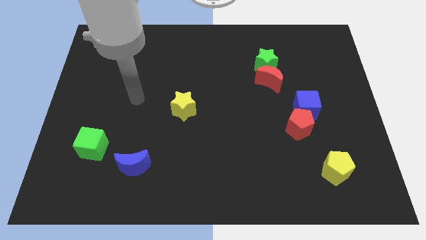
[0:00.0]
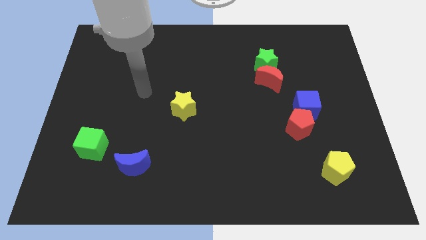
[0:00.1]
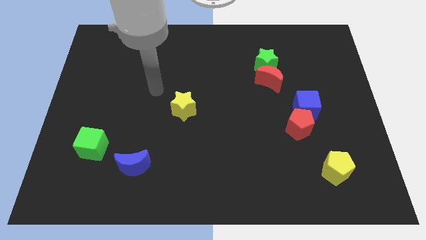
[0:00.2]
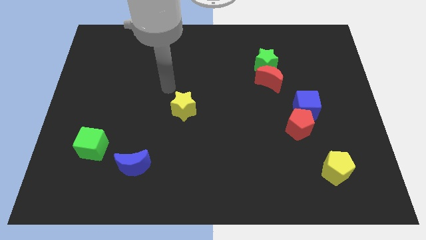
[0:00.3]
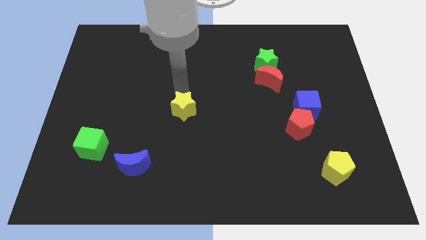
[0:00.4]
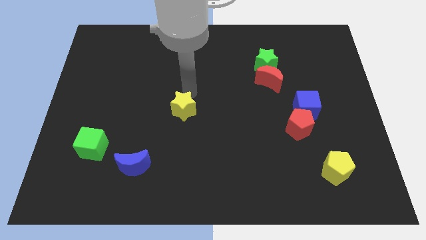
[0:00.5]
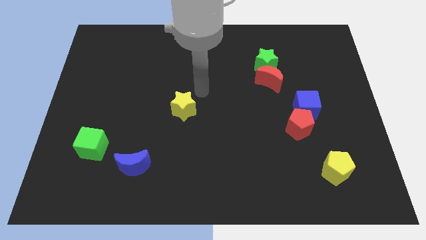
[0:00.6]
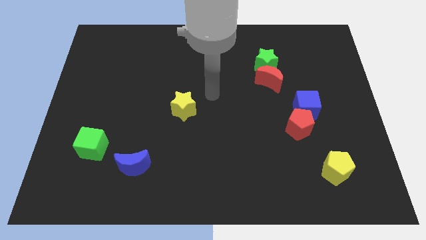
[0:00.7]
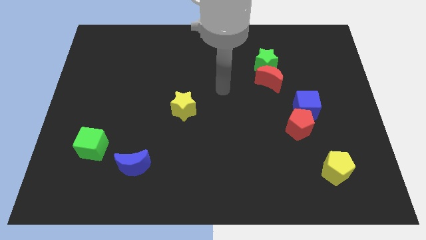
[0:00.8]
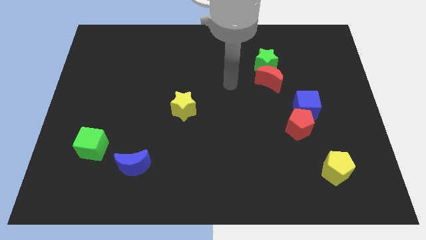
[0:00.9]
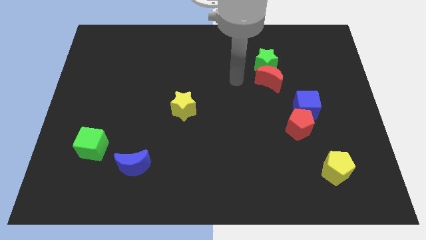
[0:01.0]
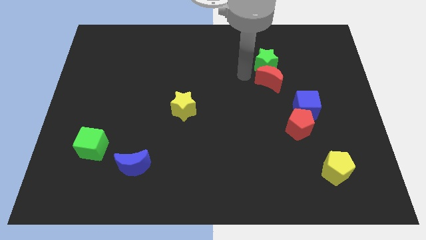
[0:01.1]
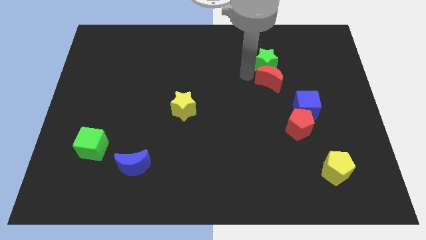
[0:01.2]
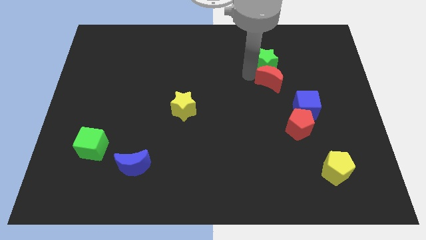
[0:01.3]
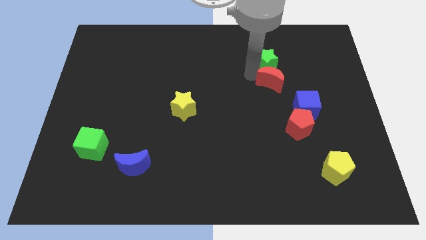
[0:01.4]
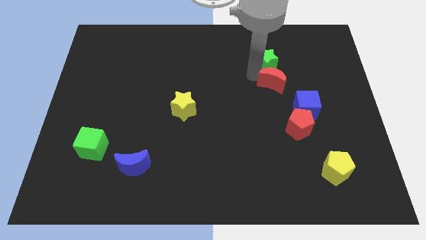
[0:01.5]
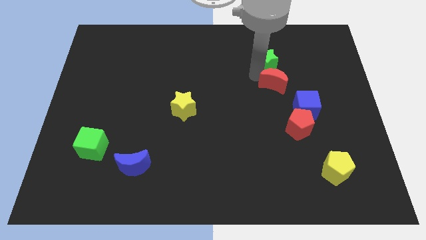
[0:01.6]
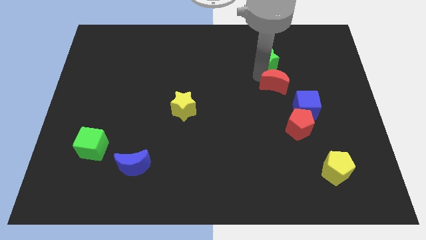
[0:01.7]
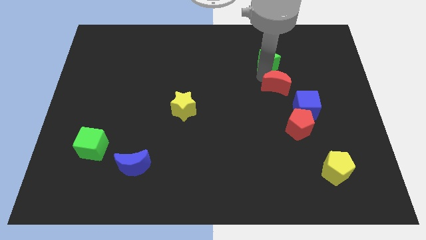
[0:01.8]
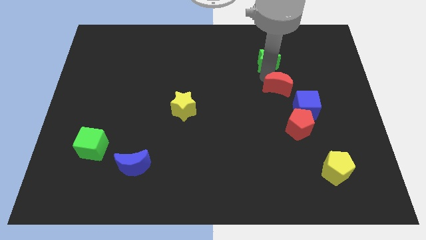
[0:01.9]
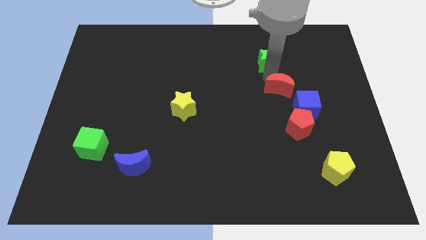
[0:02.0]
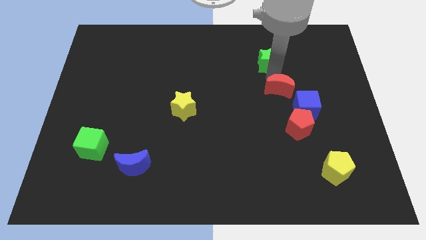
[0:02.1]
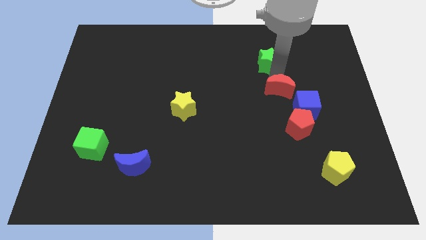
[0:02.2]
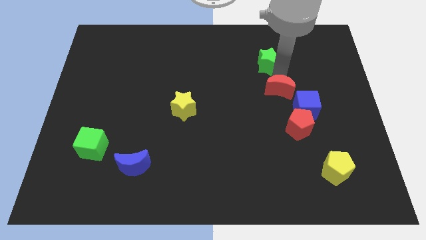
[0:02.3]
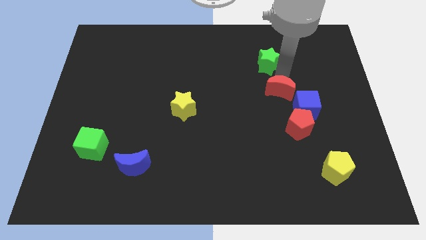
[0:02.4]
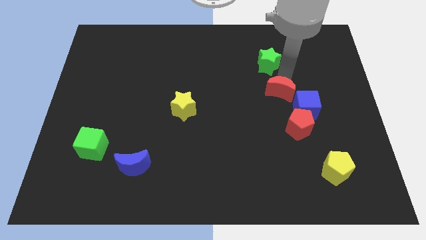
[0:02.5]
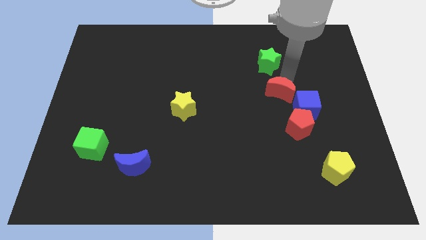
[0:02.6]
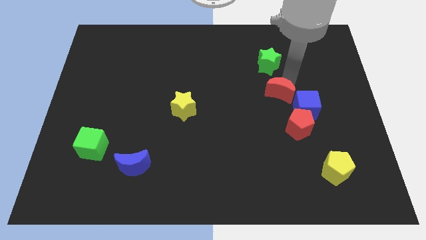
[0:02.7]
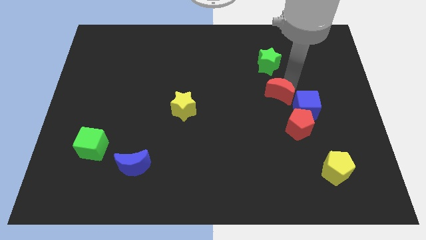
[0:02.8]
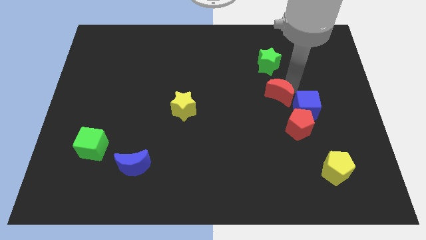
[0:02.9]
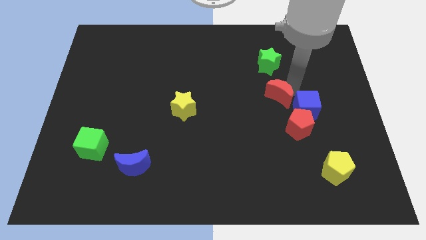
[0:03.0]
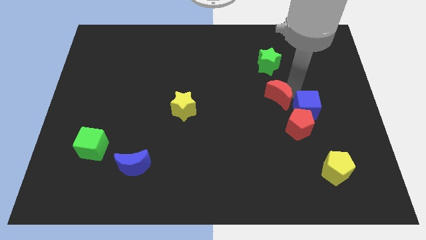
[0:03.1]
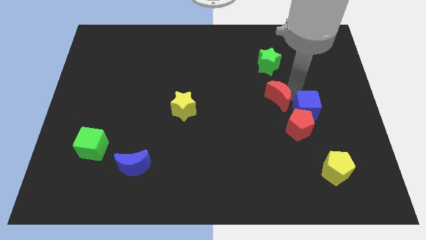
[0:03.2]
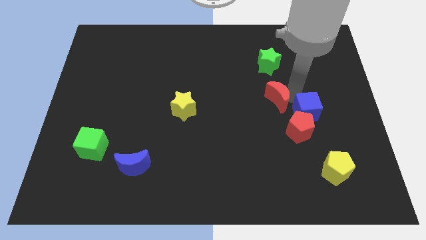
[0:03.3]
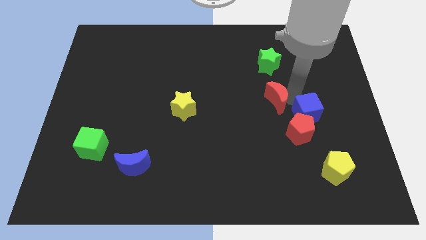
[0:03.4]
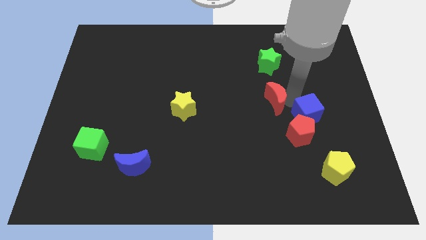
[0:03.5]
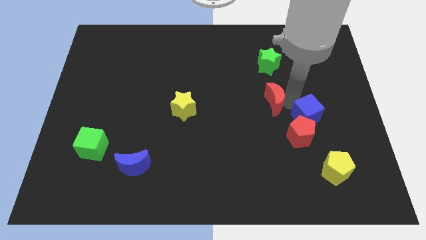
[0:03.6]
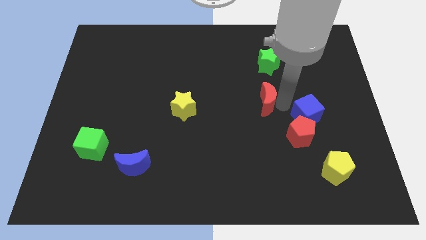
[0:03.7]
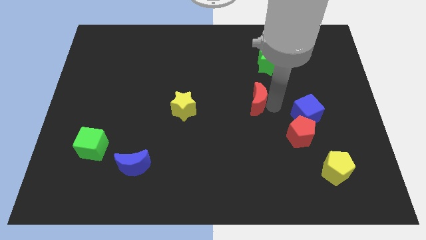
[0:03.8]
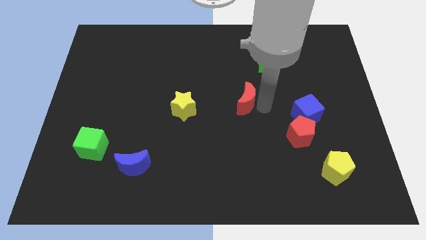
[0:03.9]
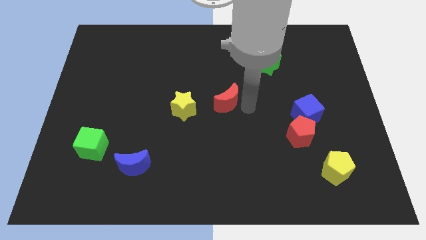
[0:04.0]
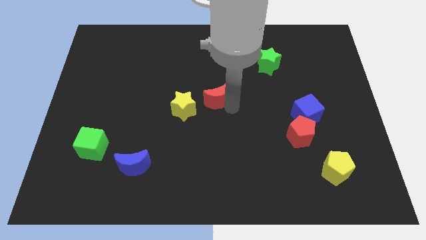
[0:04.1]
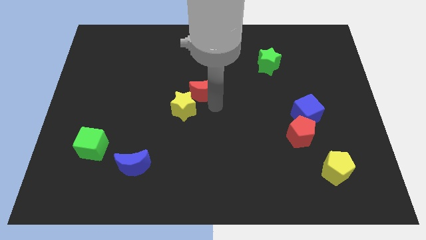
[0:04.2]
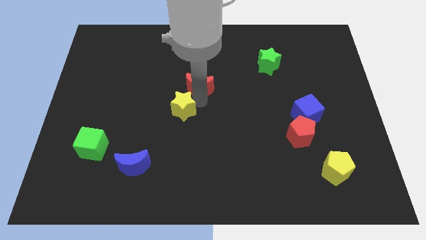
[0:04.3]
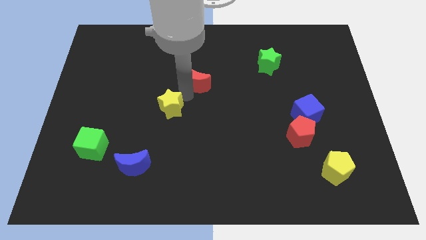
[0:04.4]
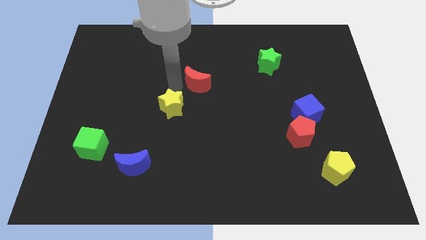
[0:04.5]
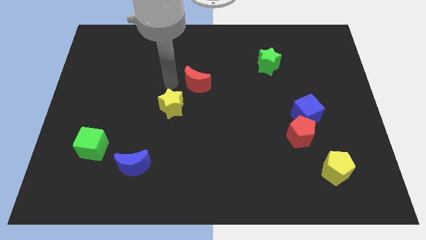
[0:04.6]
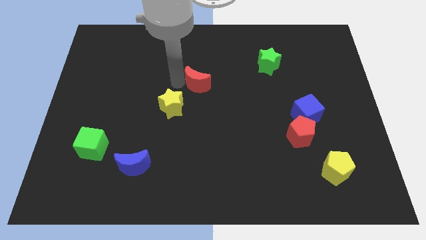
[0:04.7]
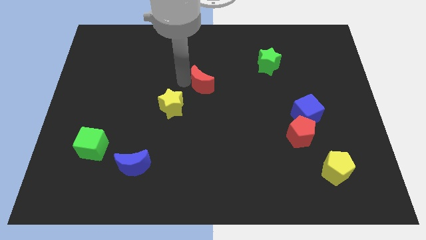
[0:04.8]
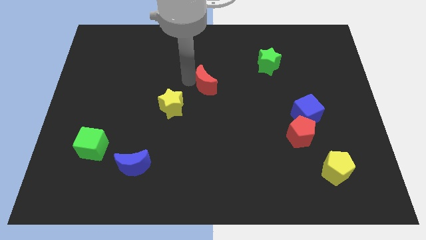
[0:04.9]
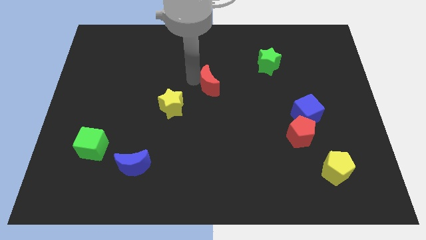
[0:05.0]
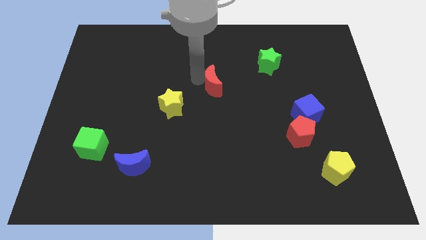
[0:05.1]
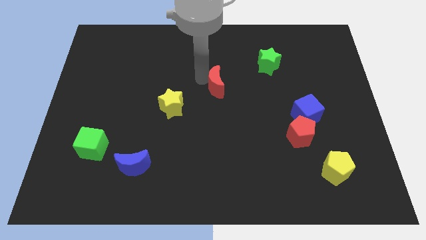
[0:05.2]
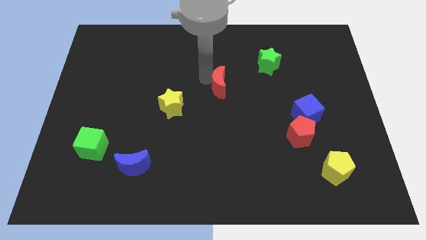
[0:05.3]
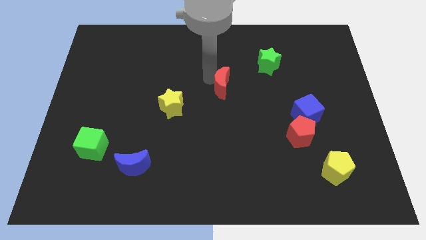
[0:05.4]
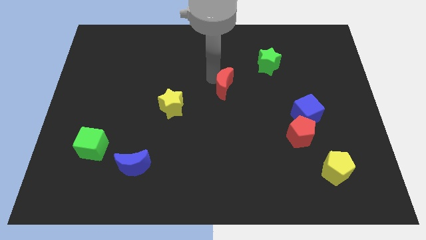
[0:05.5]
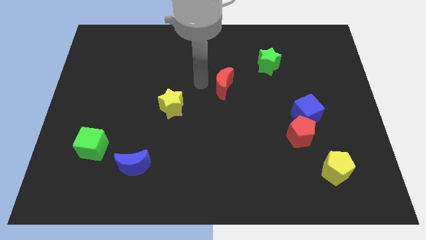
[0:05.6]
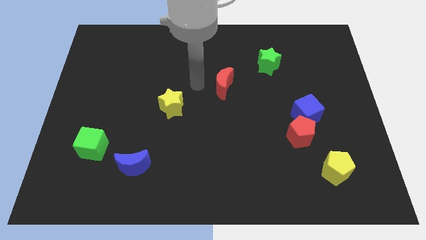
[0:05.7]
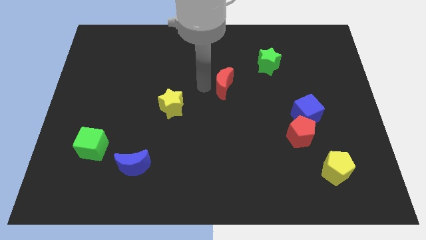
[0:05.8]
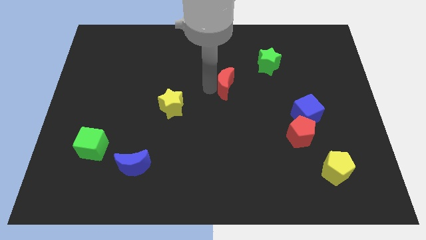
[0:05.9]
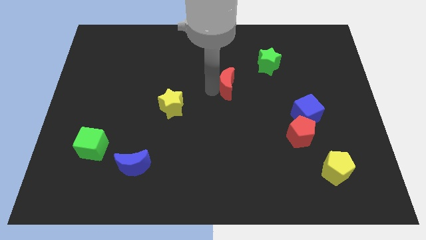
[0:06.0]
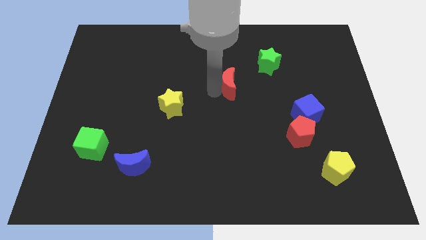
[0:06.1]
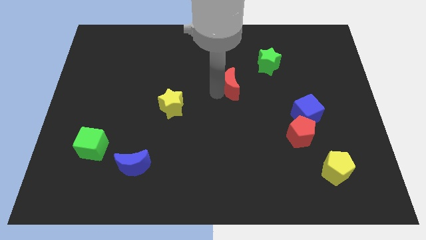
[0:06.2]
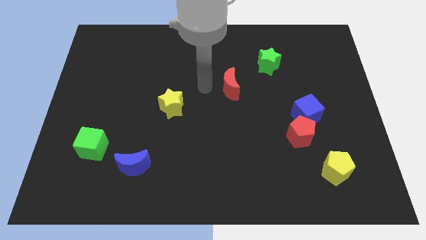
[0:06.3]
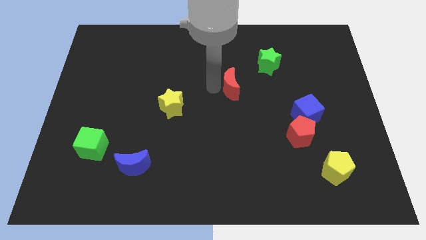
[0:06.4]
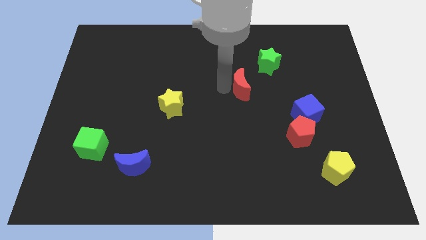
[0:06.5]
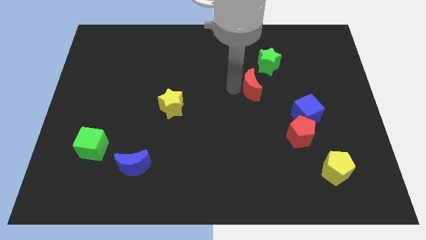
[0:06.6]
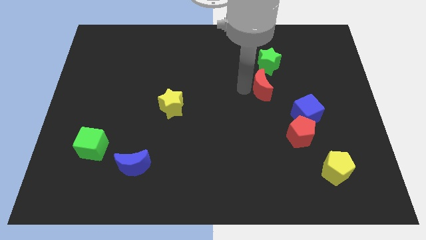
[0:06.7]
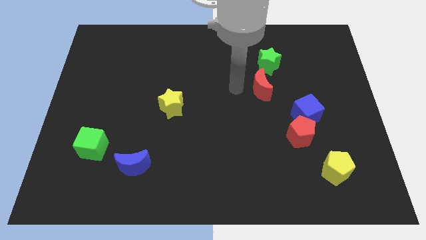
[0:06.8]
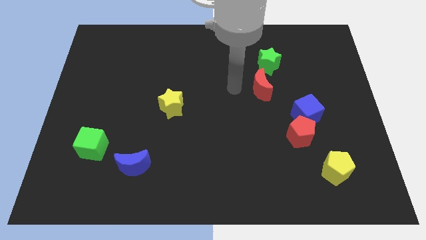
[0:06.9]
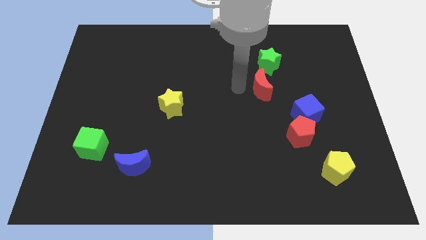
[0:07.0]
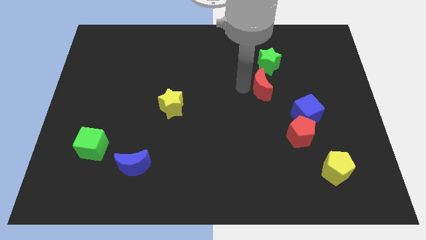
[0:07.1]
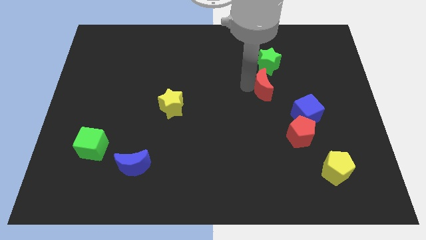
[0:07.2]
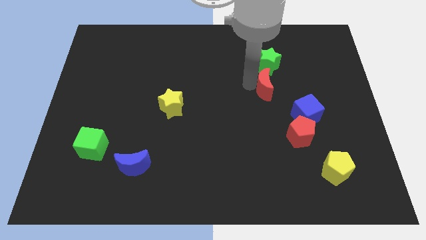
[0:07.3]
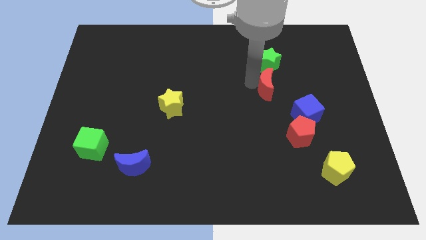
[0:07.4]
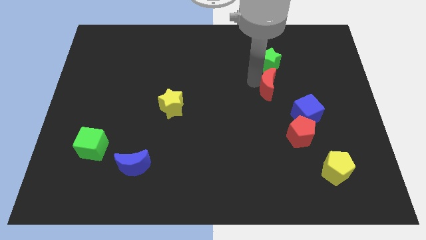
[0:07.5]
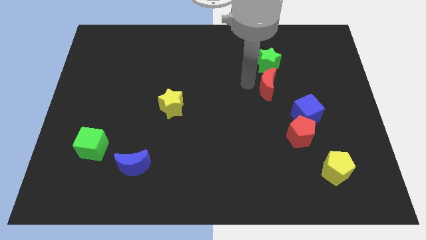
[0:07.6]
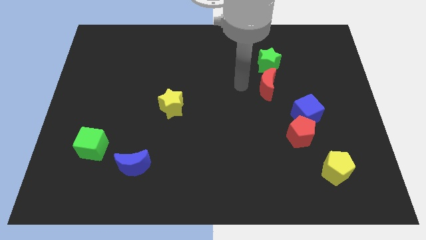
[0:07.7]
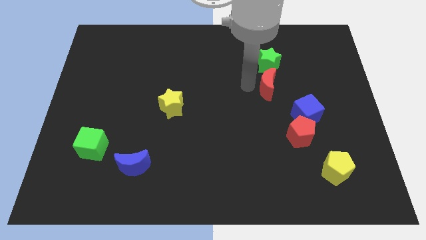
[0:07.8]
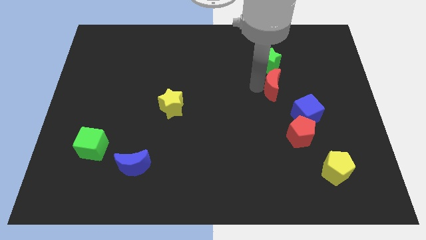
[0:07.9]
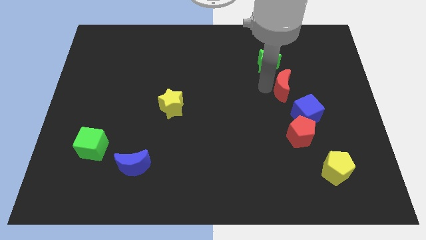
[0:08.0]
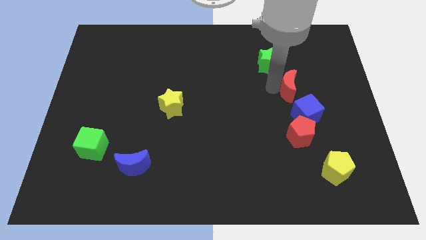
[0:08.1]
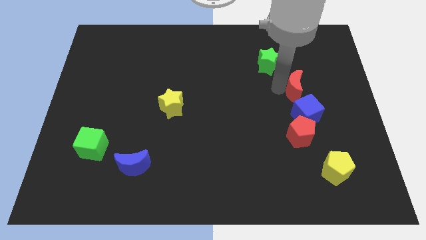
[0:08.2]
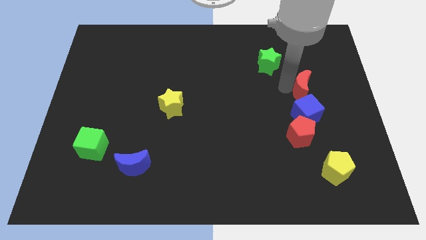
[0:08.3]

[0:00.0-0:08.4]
slide the red moon down and right a little
